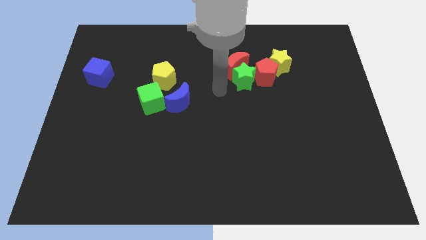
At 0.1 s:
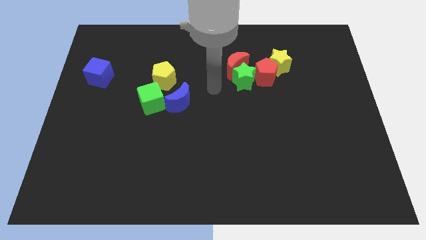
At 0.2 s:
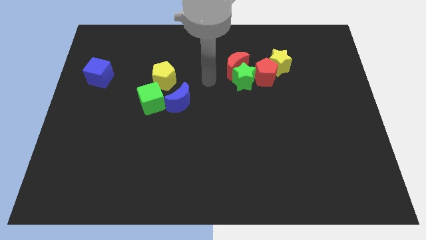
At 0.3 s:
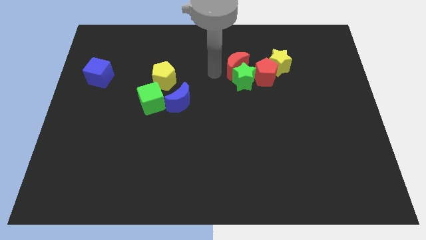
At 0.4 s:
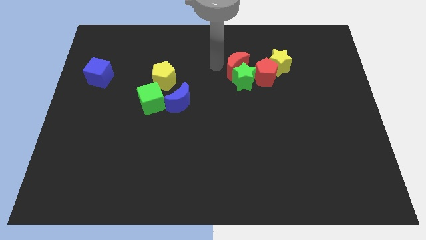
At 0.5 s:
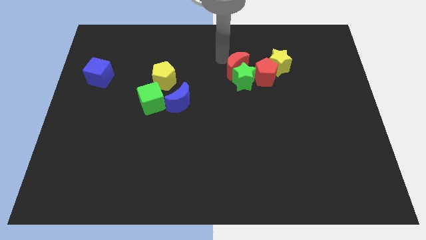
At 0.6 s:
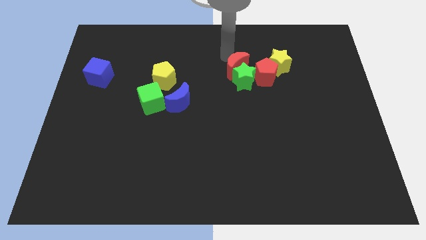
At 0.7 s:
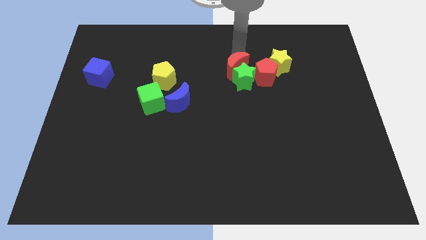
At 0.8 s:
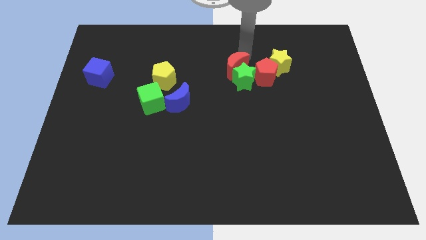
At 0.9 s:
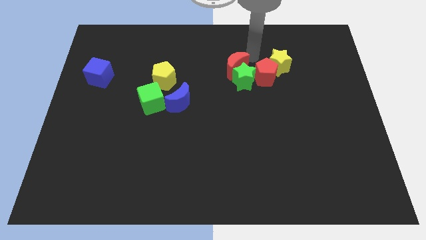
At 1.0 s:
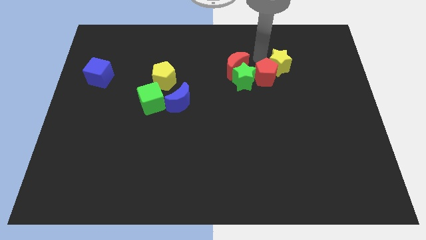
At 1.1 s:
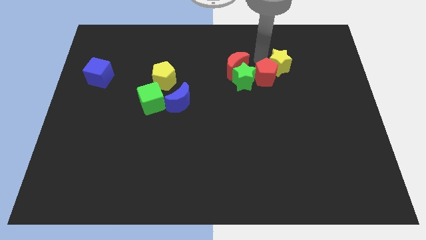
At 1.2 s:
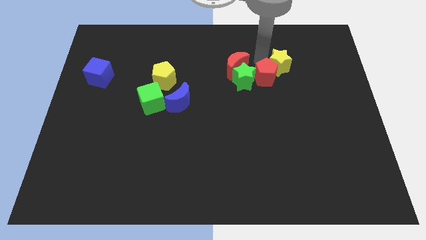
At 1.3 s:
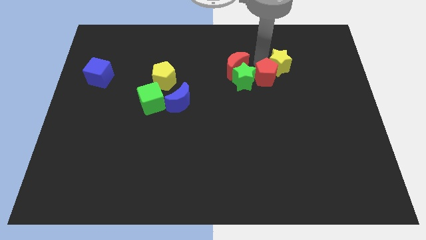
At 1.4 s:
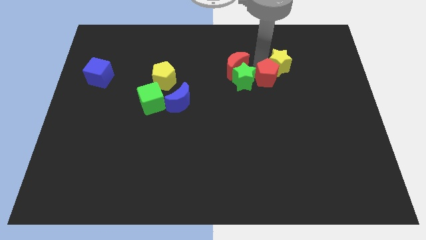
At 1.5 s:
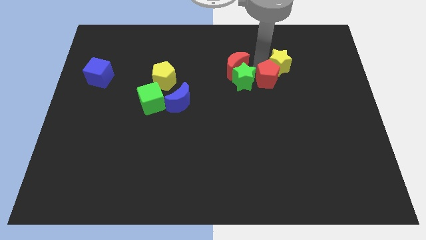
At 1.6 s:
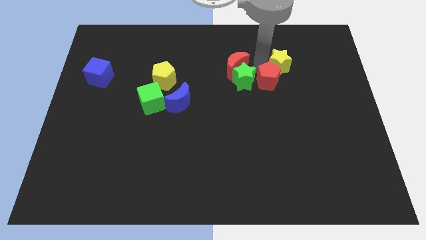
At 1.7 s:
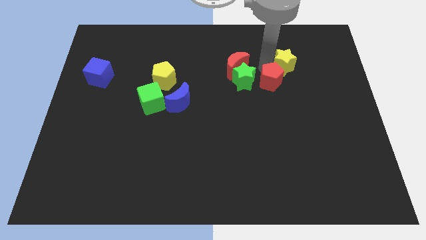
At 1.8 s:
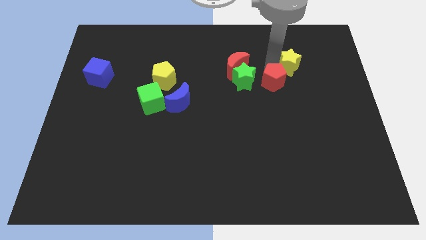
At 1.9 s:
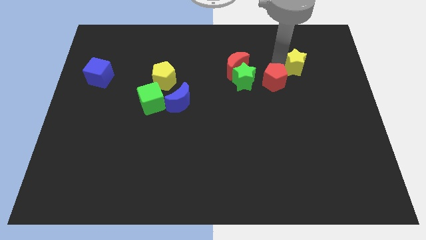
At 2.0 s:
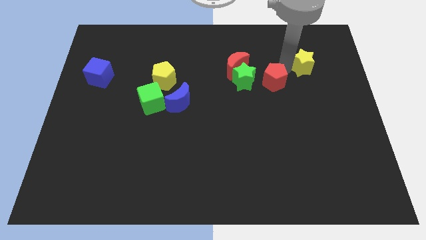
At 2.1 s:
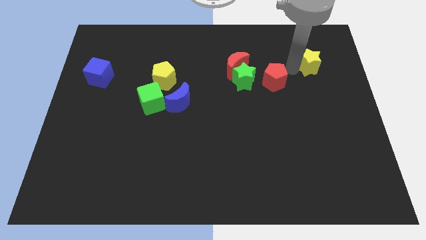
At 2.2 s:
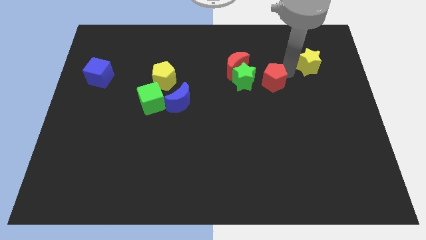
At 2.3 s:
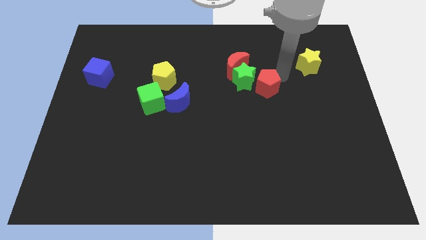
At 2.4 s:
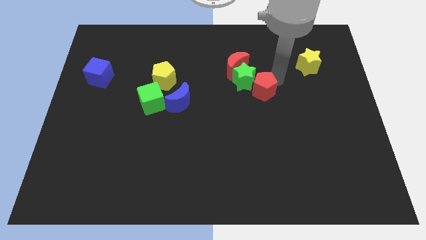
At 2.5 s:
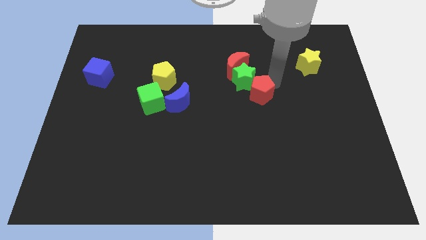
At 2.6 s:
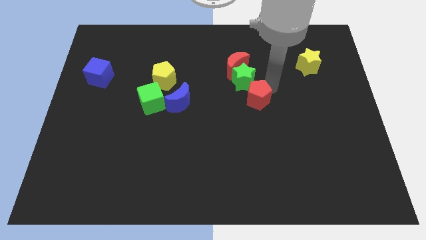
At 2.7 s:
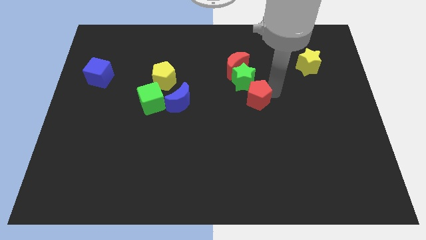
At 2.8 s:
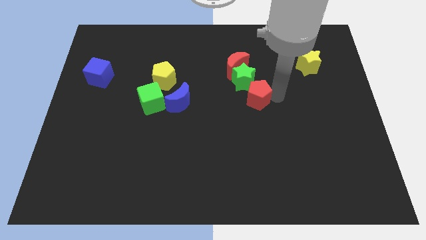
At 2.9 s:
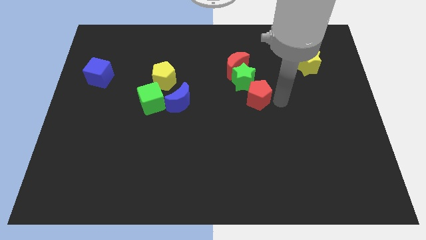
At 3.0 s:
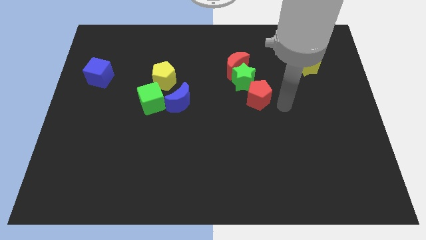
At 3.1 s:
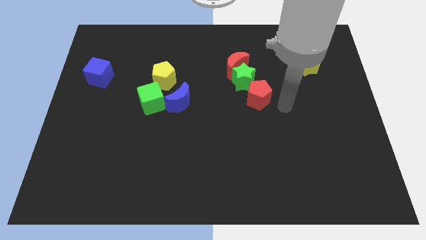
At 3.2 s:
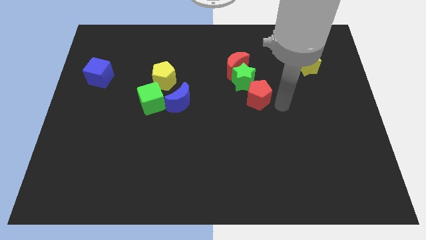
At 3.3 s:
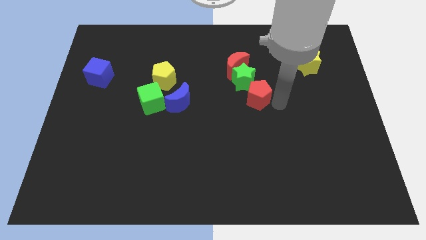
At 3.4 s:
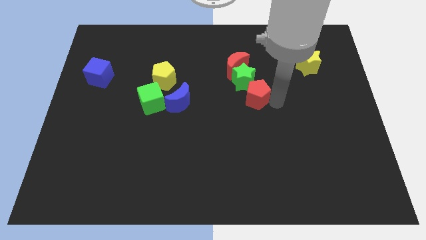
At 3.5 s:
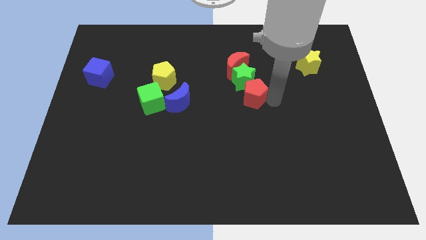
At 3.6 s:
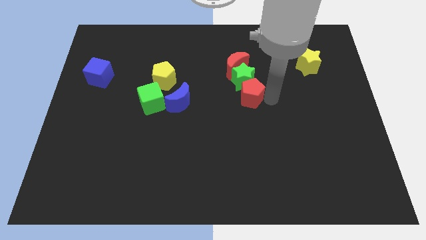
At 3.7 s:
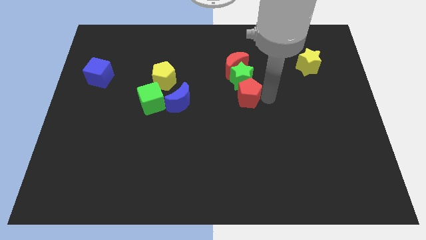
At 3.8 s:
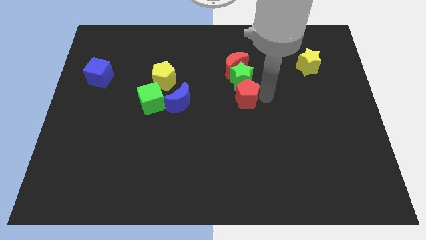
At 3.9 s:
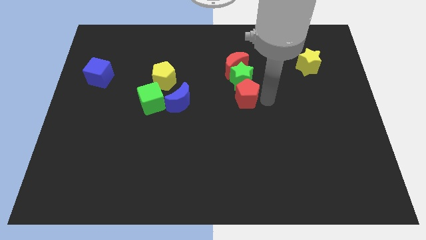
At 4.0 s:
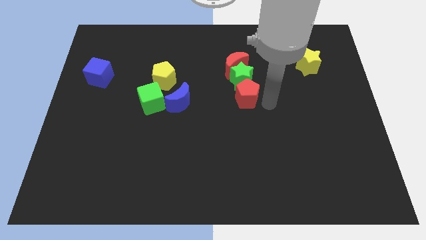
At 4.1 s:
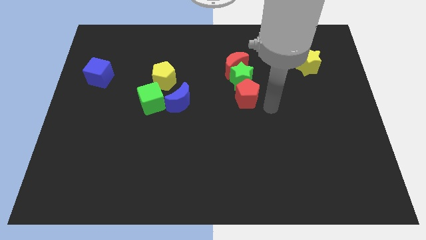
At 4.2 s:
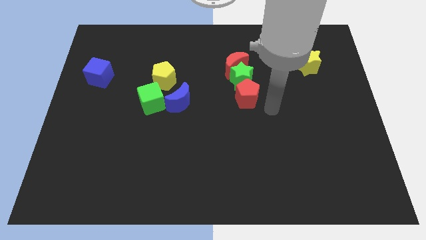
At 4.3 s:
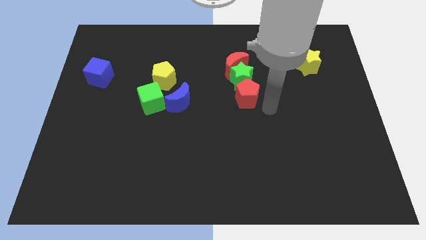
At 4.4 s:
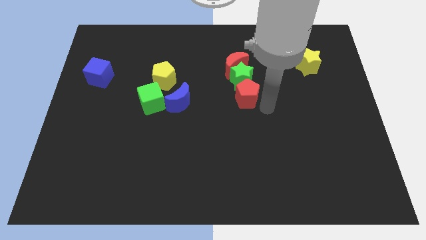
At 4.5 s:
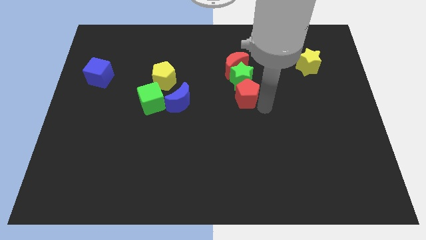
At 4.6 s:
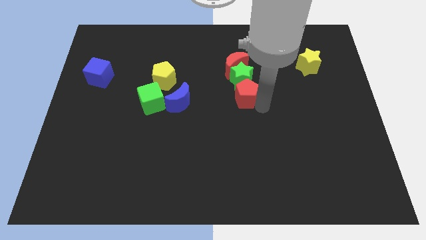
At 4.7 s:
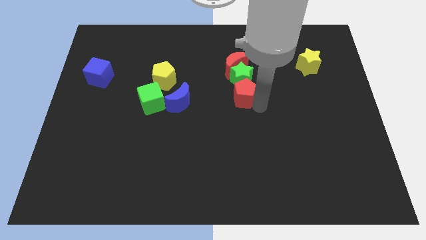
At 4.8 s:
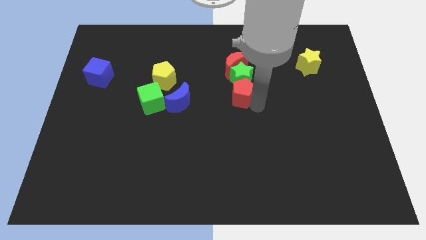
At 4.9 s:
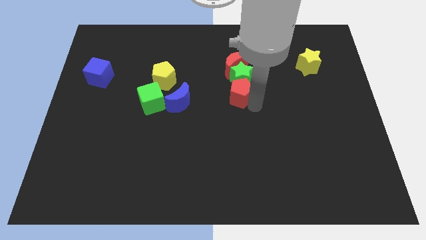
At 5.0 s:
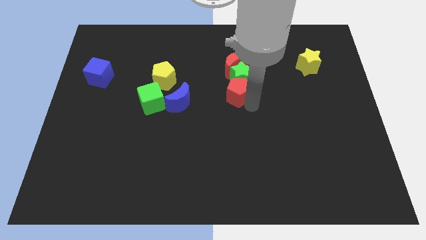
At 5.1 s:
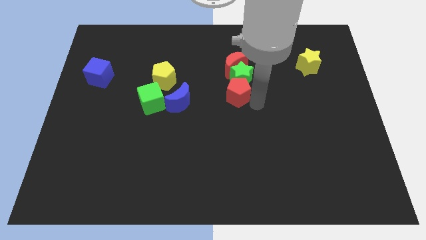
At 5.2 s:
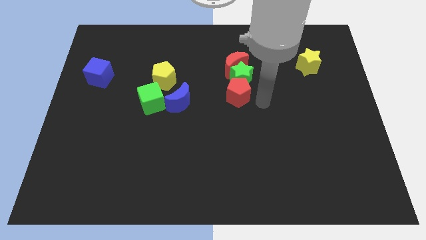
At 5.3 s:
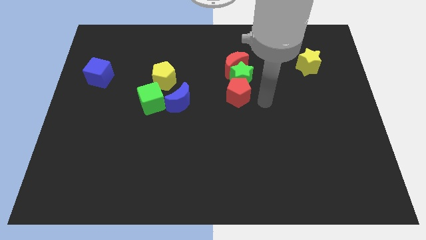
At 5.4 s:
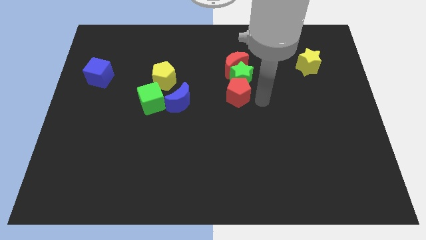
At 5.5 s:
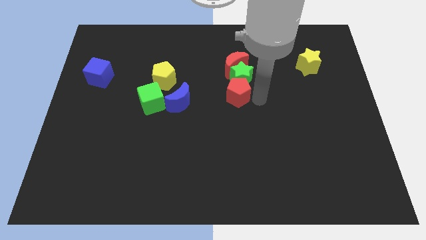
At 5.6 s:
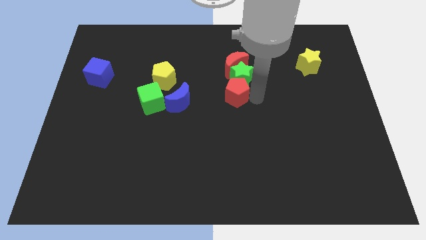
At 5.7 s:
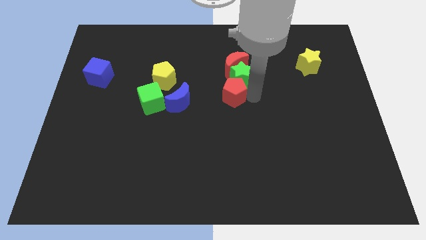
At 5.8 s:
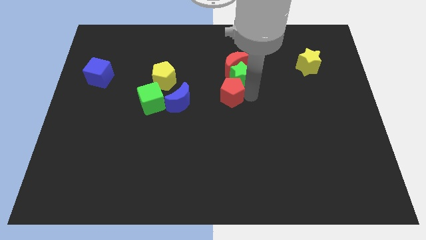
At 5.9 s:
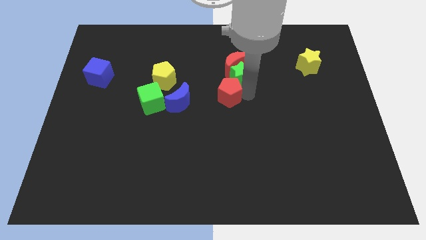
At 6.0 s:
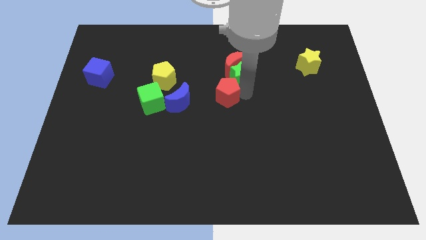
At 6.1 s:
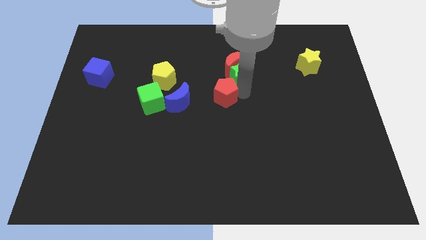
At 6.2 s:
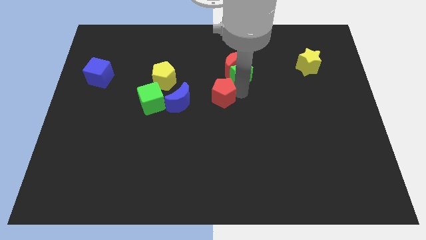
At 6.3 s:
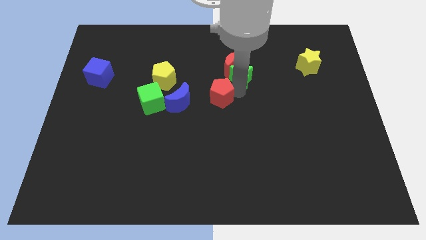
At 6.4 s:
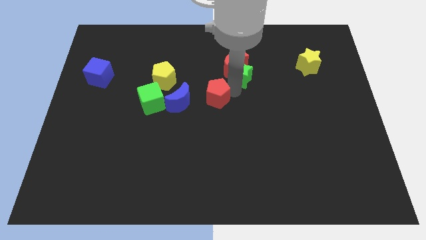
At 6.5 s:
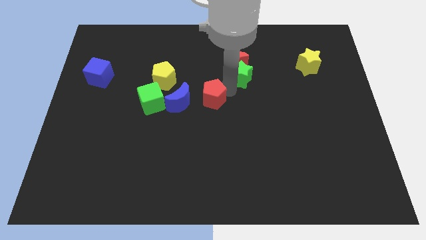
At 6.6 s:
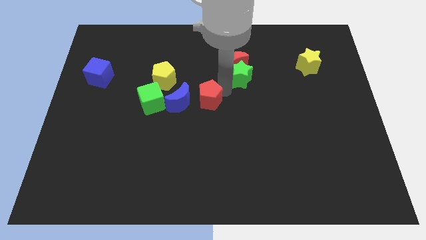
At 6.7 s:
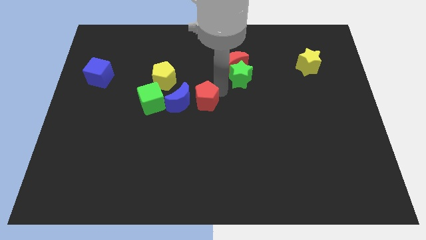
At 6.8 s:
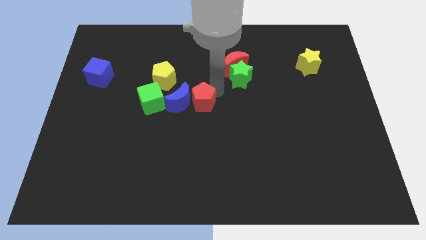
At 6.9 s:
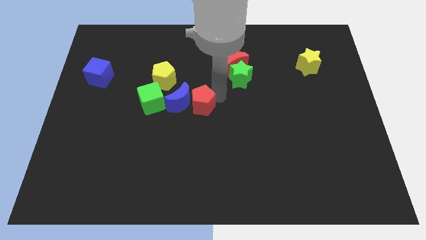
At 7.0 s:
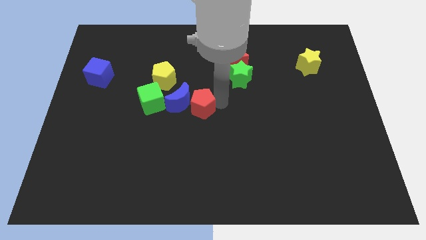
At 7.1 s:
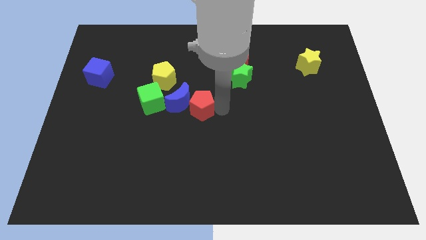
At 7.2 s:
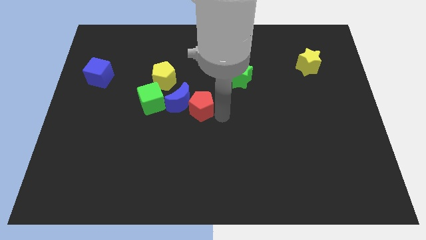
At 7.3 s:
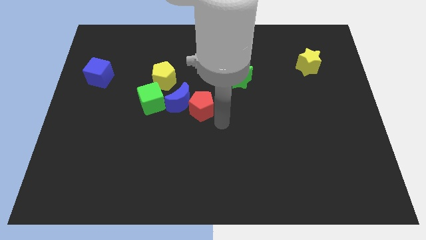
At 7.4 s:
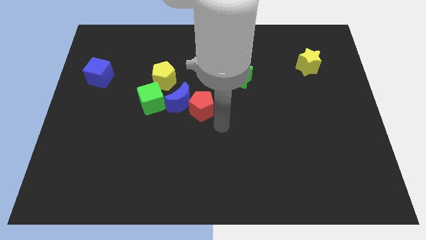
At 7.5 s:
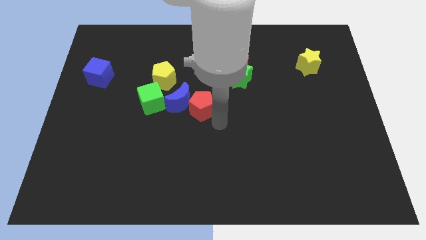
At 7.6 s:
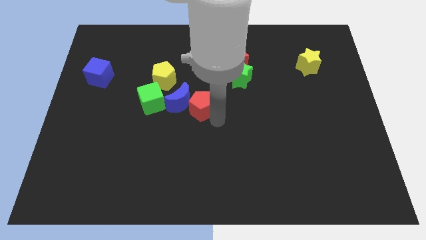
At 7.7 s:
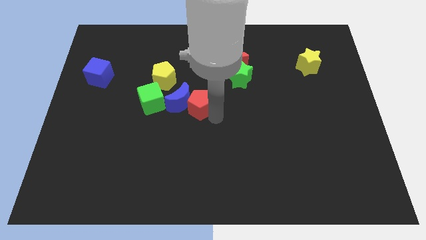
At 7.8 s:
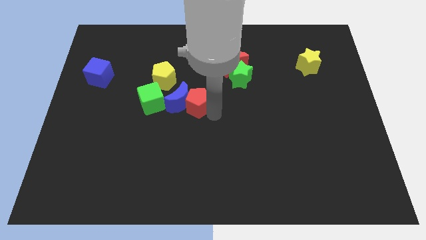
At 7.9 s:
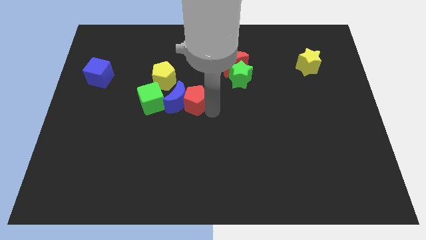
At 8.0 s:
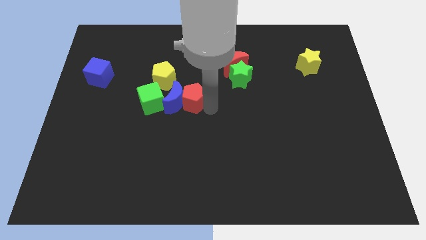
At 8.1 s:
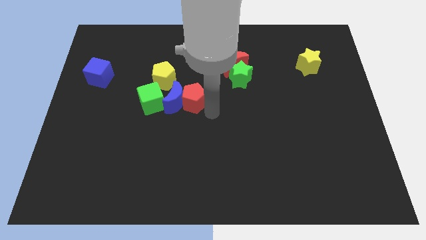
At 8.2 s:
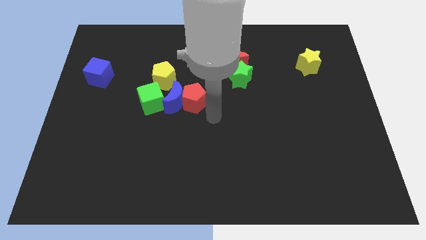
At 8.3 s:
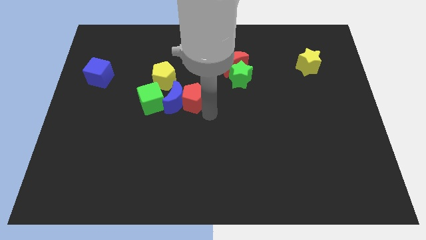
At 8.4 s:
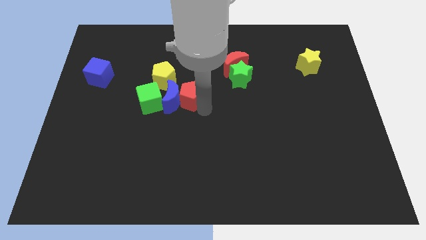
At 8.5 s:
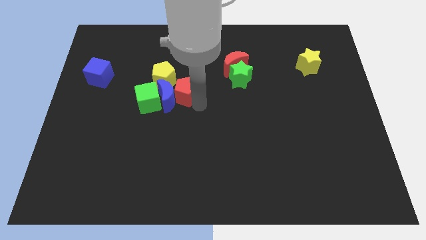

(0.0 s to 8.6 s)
push the red pentagon diagonally up and to the right of the green cube
